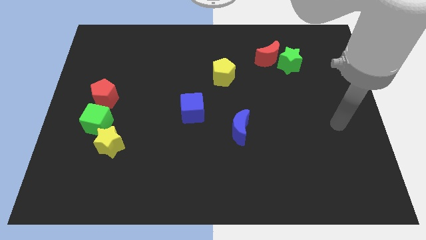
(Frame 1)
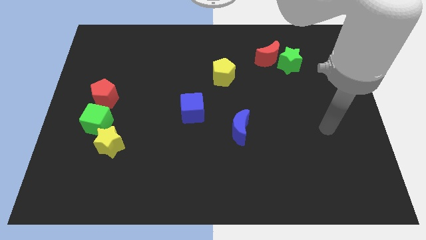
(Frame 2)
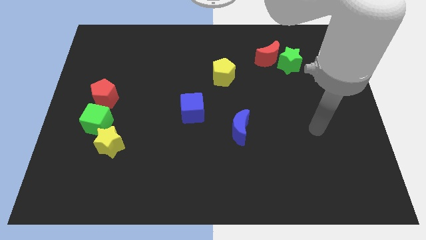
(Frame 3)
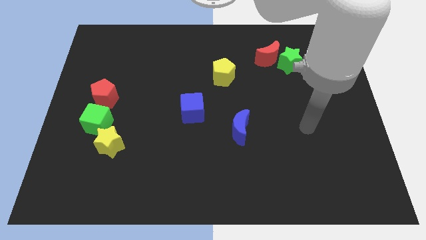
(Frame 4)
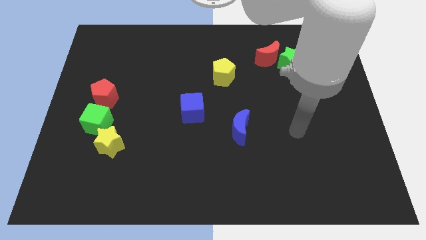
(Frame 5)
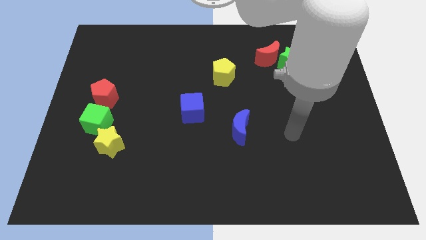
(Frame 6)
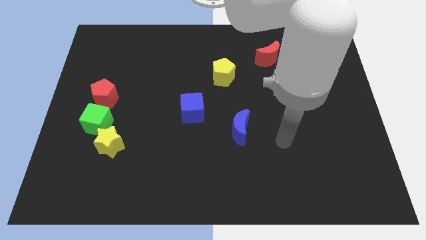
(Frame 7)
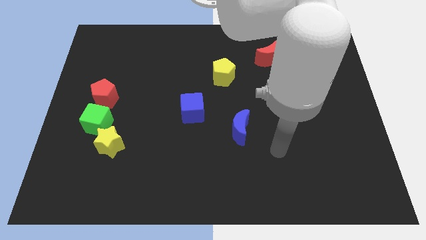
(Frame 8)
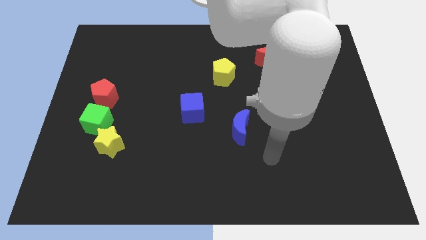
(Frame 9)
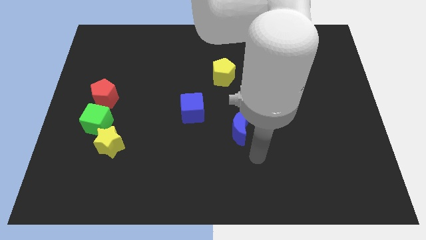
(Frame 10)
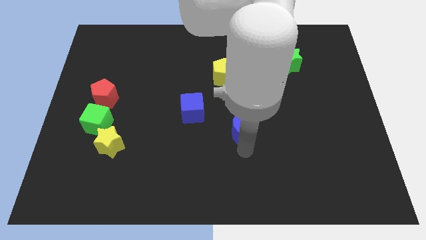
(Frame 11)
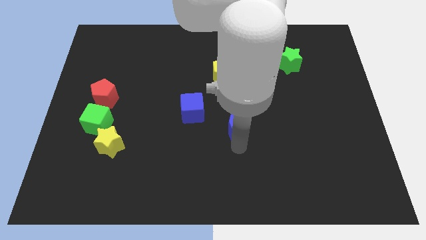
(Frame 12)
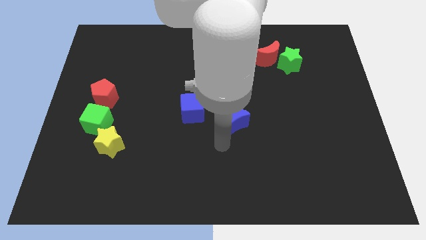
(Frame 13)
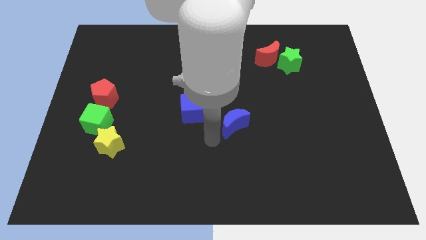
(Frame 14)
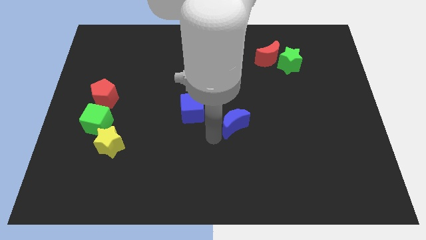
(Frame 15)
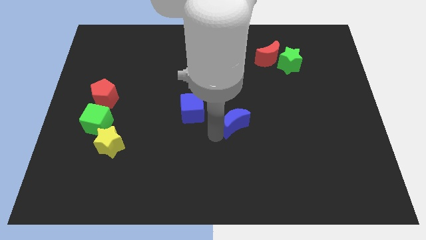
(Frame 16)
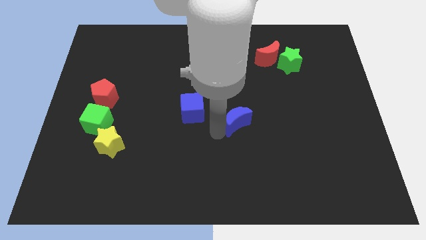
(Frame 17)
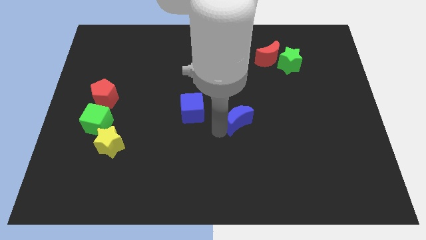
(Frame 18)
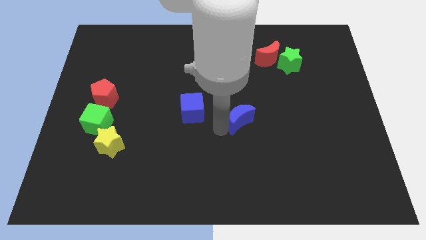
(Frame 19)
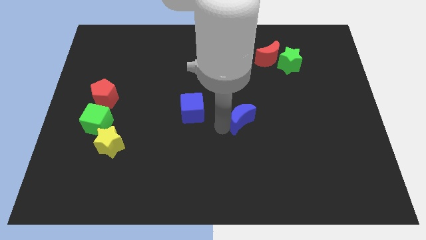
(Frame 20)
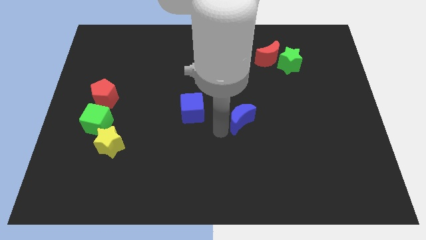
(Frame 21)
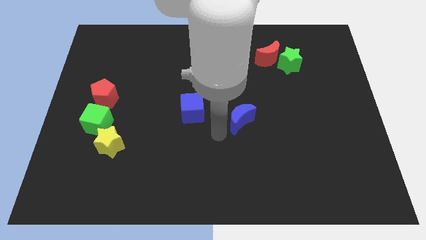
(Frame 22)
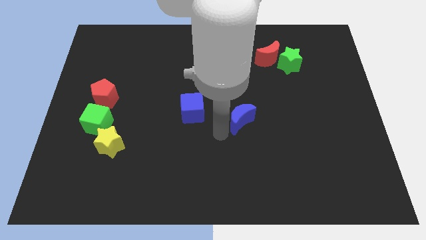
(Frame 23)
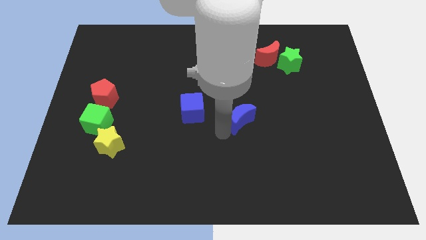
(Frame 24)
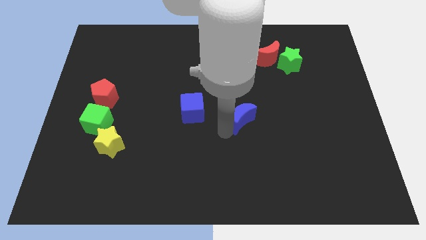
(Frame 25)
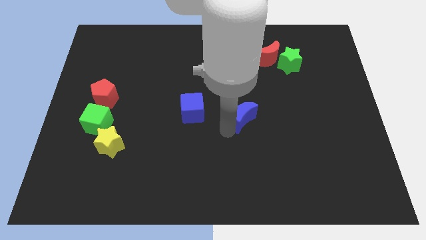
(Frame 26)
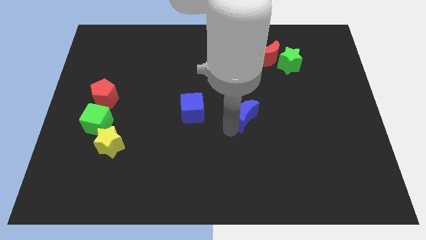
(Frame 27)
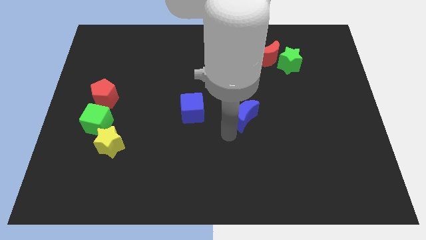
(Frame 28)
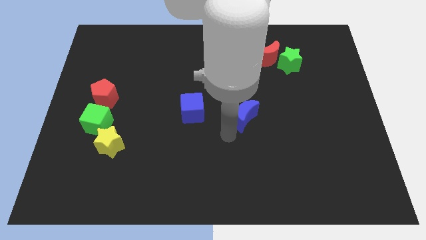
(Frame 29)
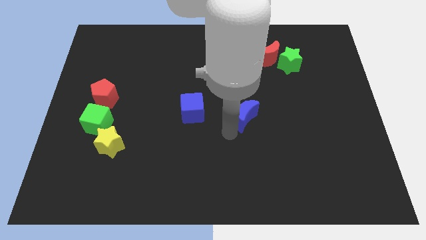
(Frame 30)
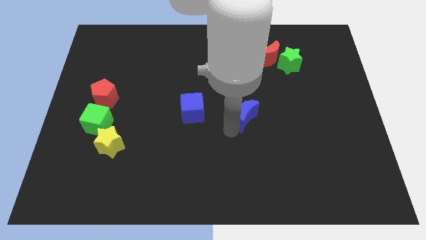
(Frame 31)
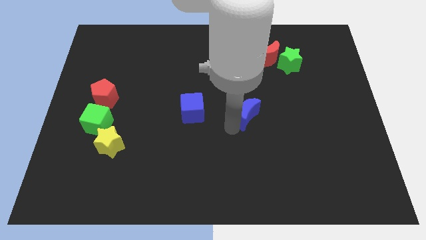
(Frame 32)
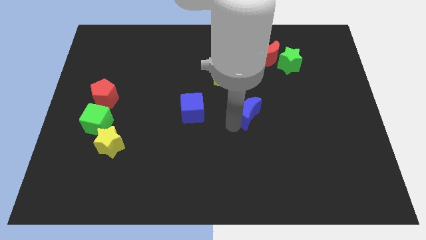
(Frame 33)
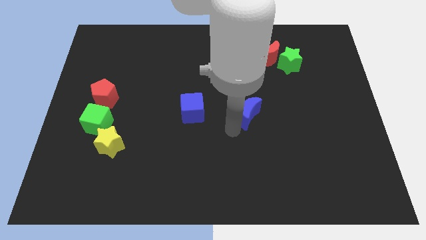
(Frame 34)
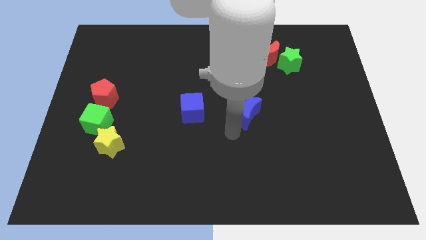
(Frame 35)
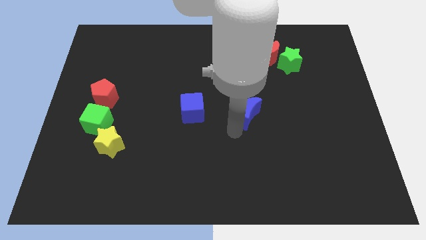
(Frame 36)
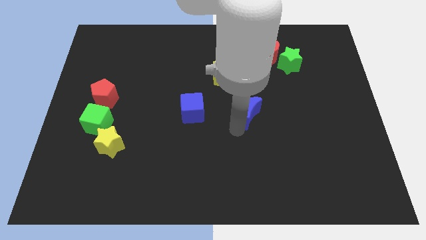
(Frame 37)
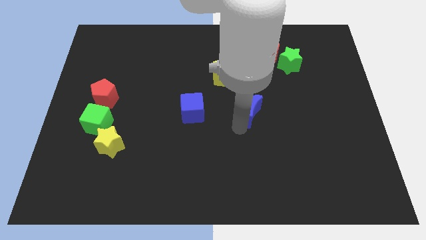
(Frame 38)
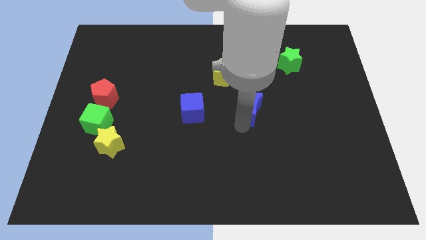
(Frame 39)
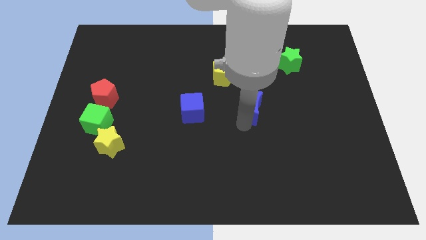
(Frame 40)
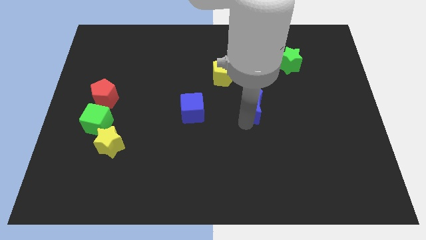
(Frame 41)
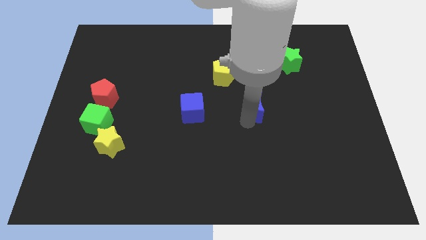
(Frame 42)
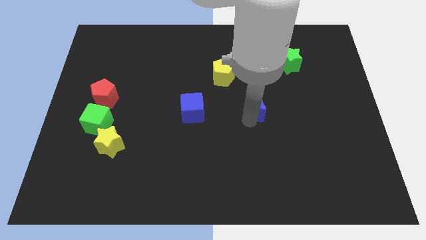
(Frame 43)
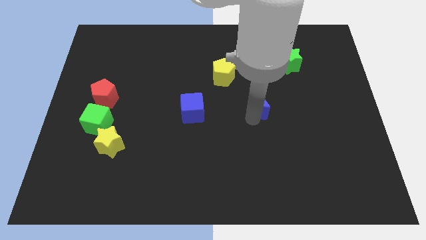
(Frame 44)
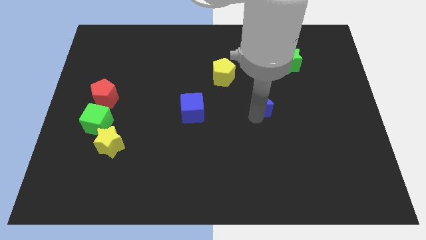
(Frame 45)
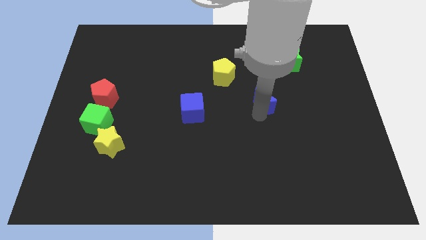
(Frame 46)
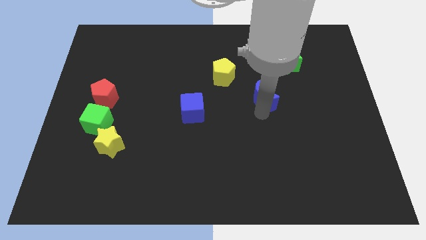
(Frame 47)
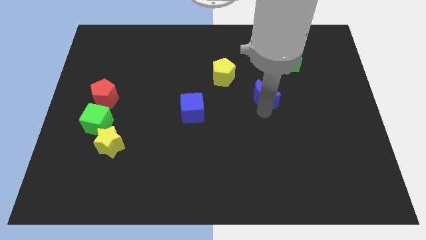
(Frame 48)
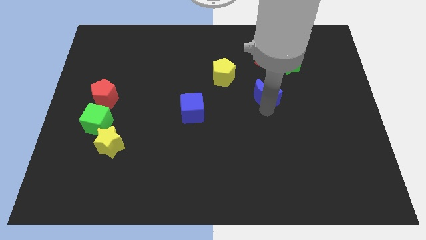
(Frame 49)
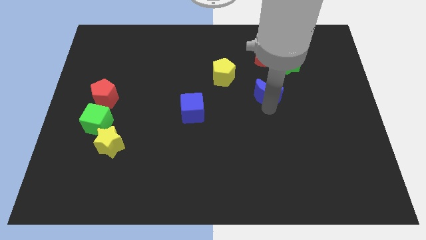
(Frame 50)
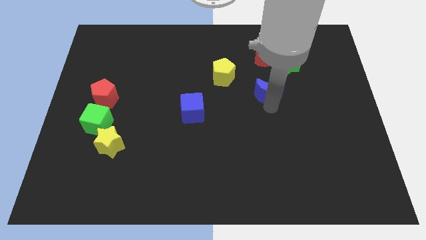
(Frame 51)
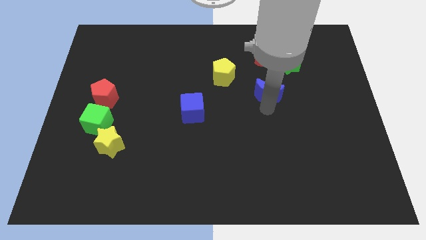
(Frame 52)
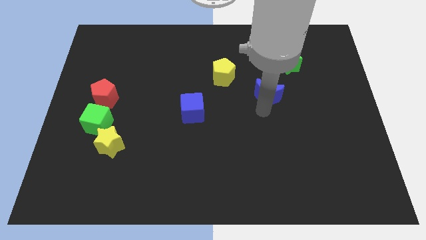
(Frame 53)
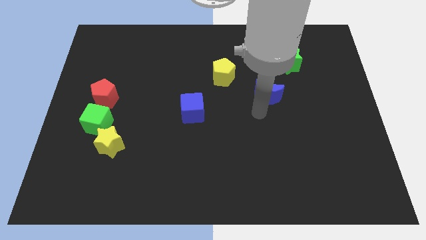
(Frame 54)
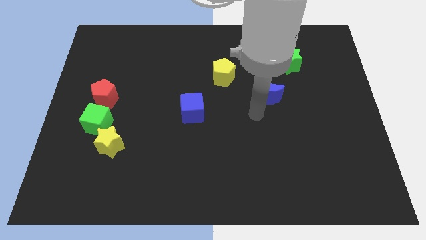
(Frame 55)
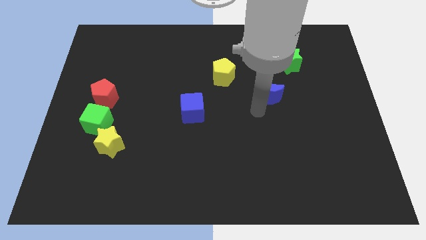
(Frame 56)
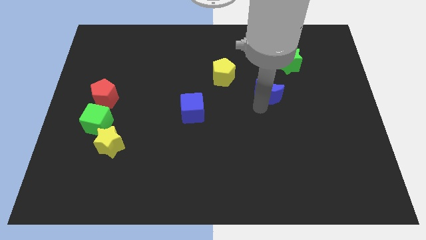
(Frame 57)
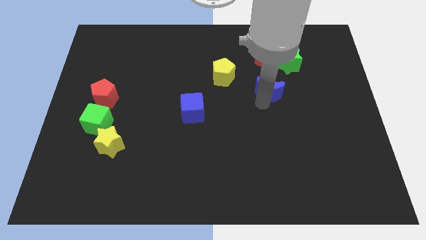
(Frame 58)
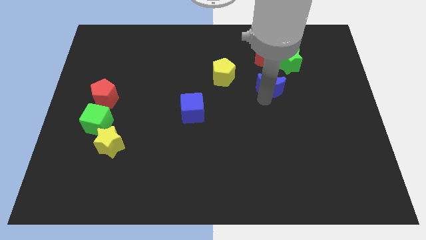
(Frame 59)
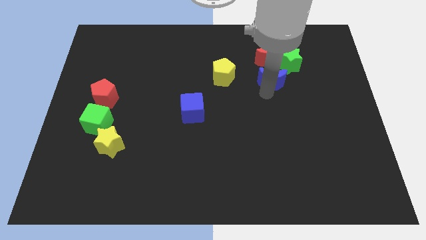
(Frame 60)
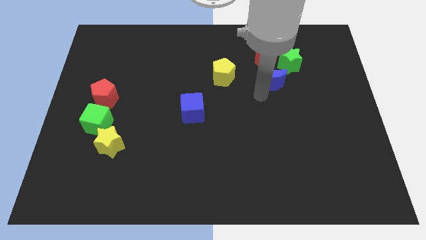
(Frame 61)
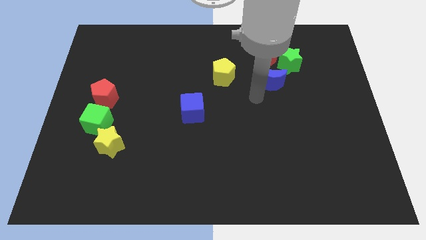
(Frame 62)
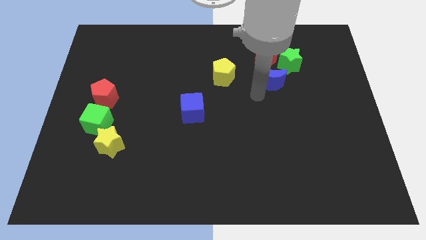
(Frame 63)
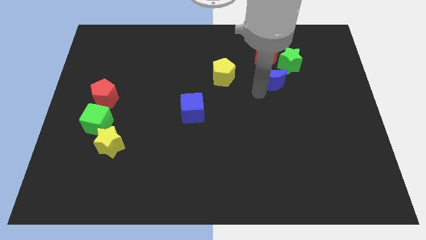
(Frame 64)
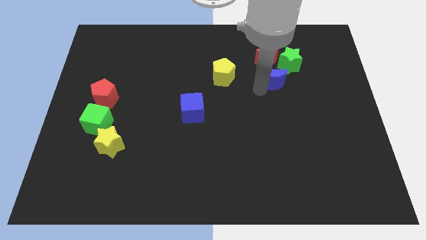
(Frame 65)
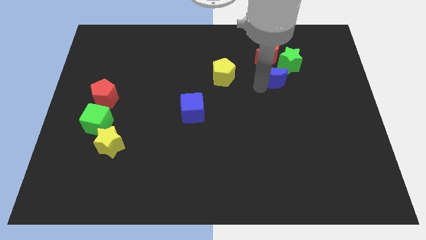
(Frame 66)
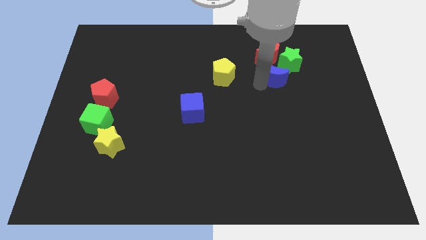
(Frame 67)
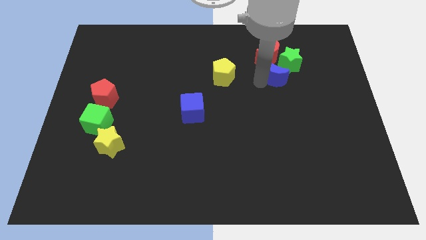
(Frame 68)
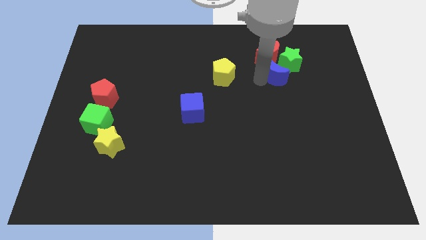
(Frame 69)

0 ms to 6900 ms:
slide the blue moon close to the green star

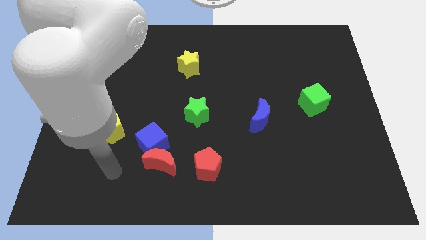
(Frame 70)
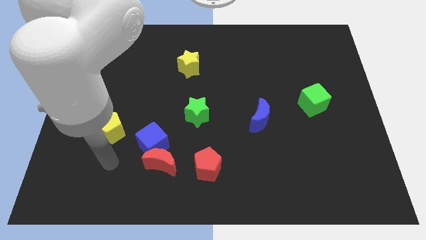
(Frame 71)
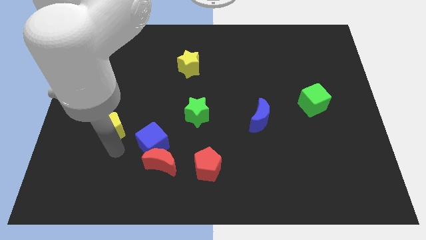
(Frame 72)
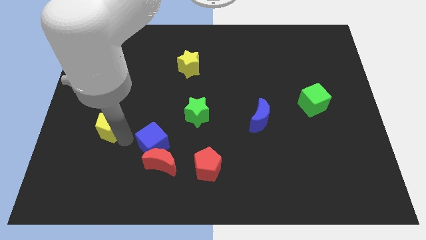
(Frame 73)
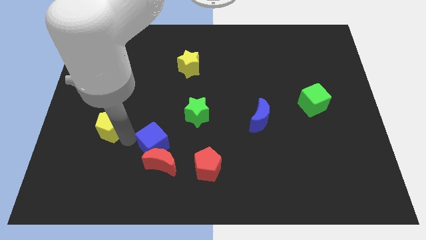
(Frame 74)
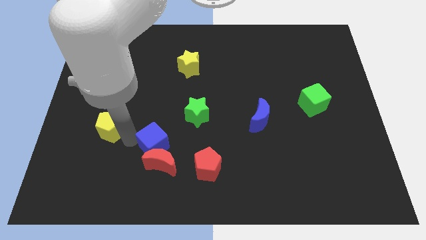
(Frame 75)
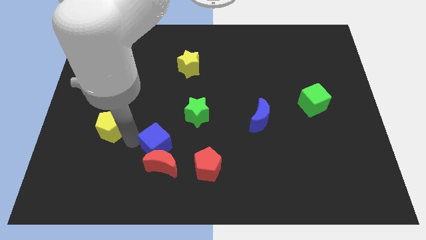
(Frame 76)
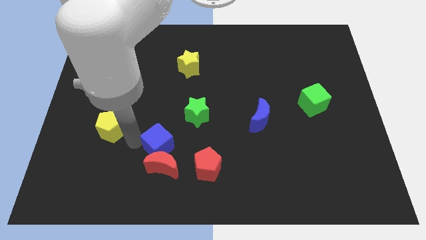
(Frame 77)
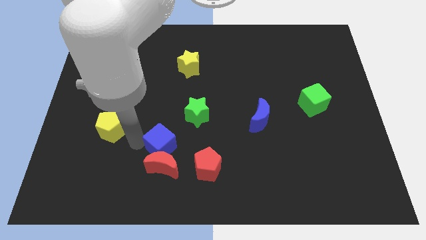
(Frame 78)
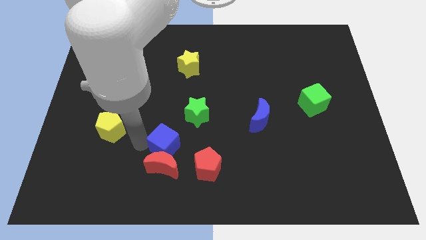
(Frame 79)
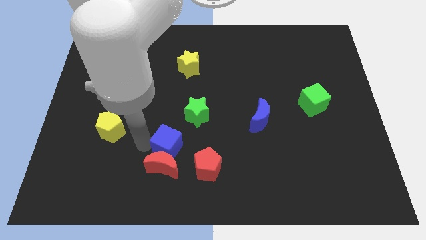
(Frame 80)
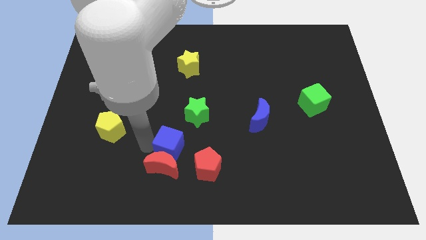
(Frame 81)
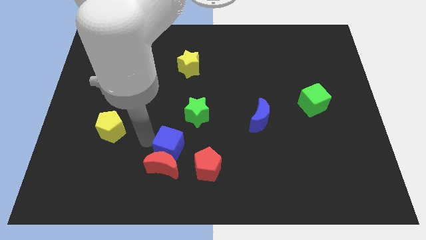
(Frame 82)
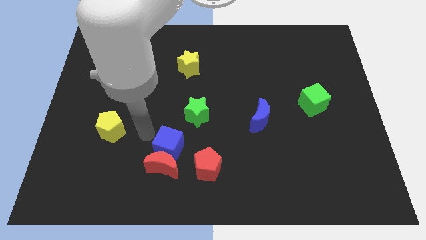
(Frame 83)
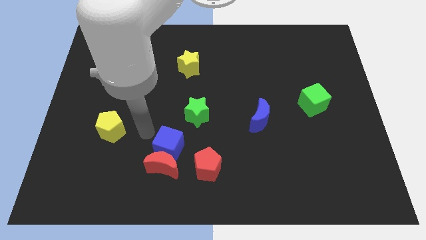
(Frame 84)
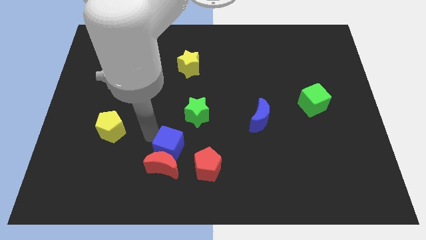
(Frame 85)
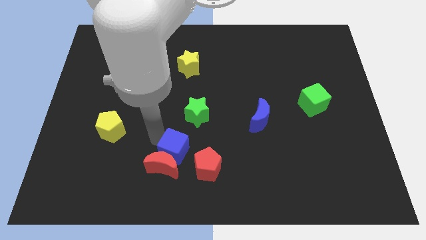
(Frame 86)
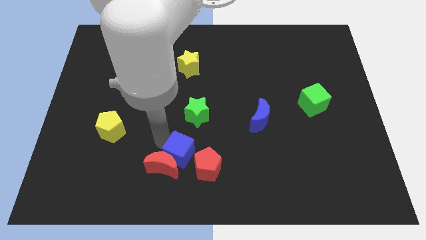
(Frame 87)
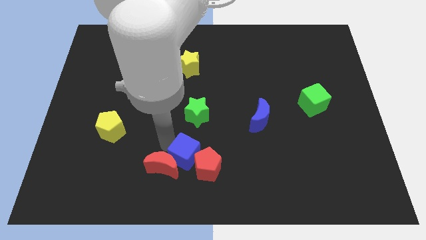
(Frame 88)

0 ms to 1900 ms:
move the blue cube close to the red pentagon
